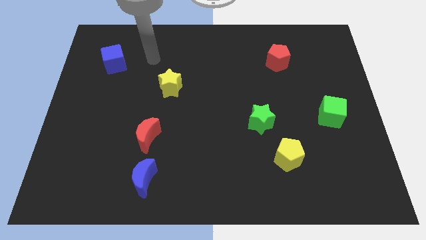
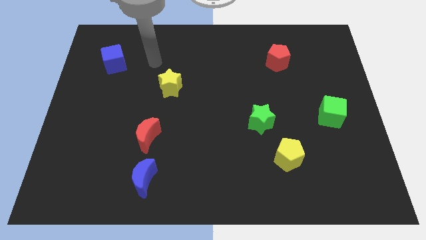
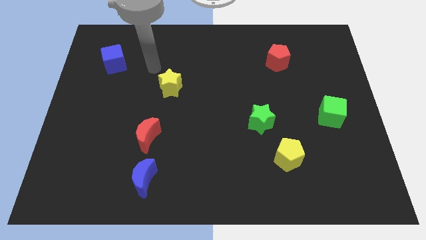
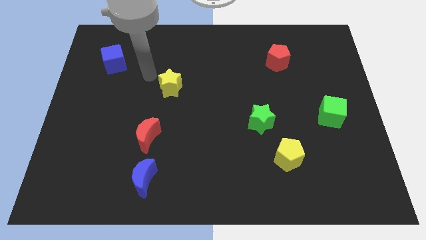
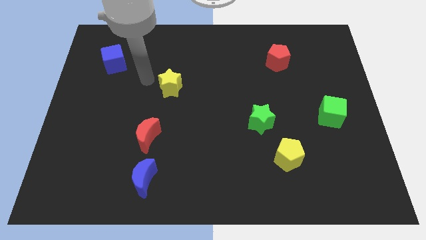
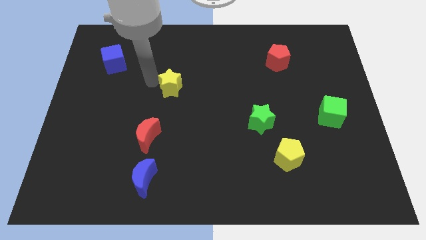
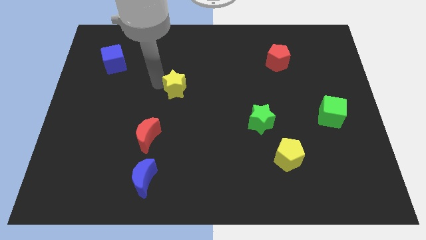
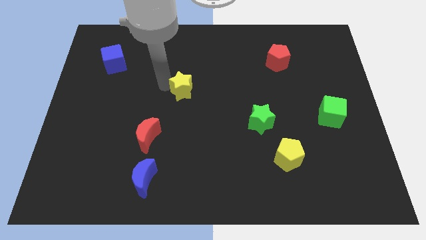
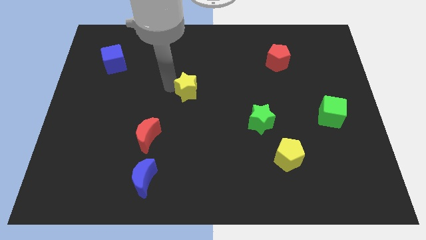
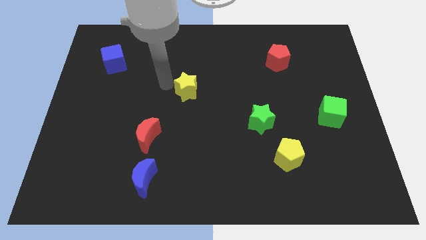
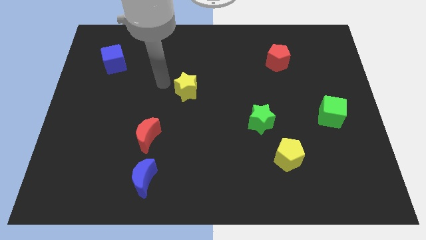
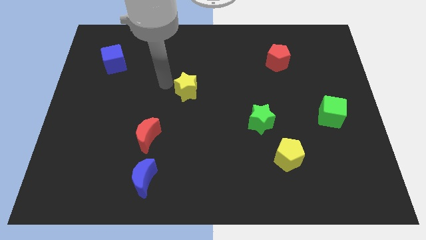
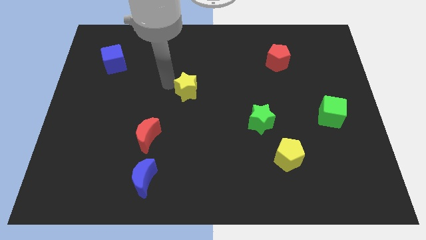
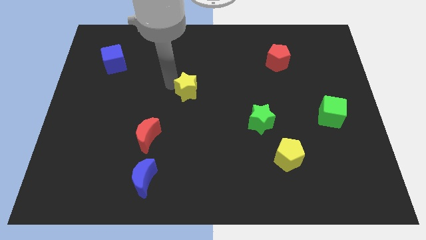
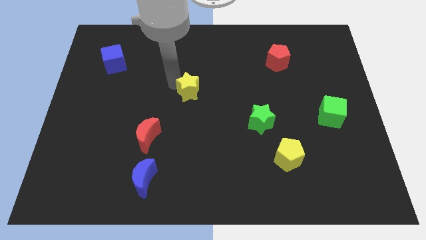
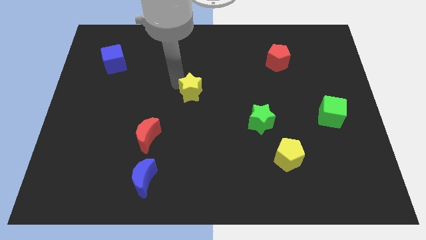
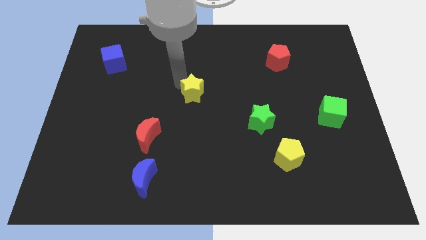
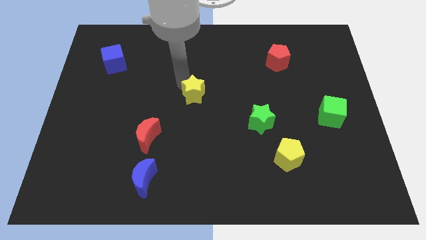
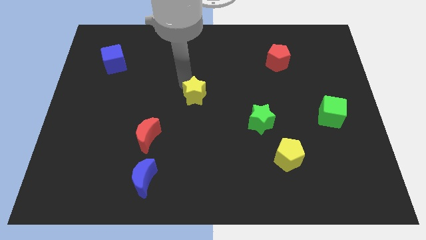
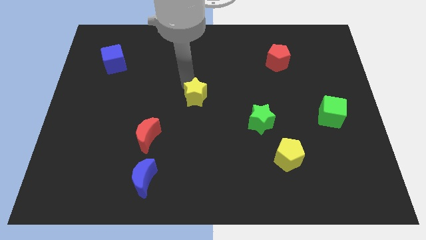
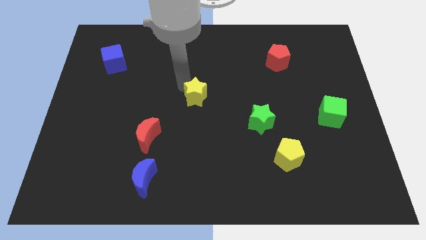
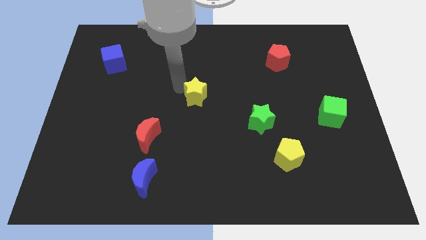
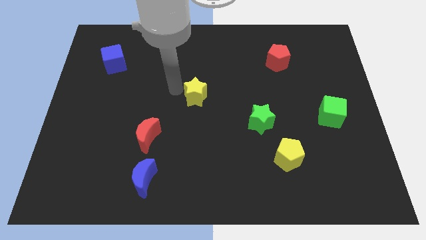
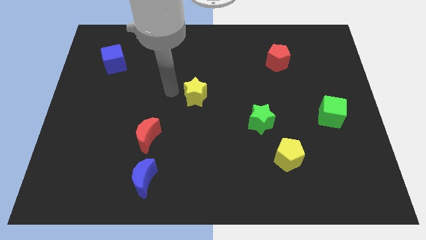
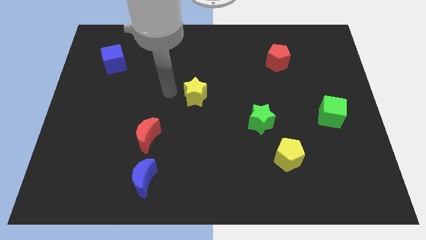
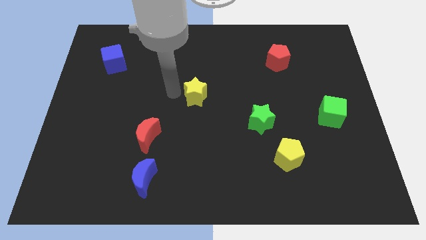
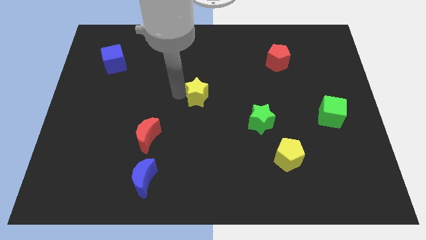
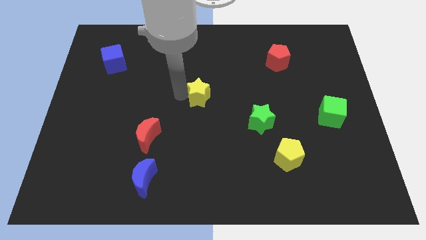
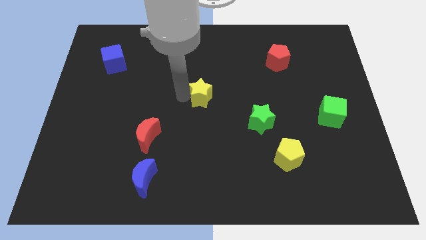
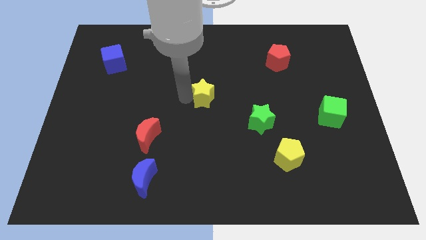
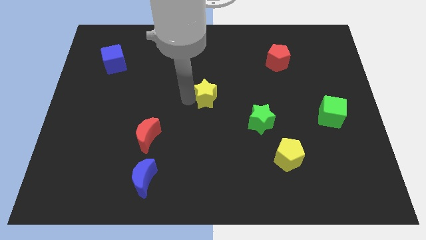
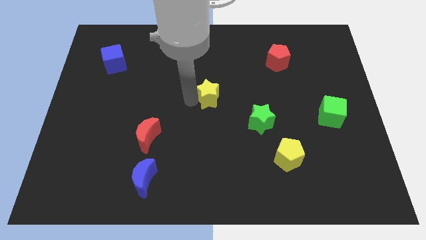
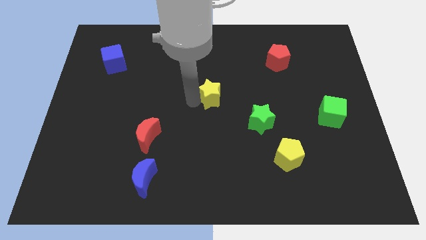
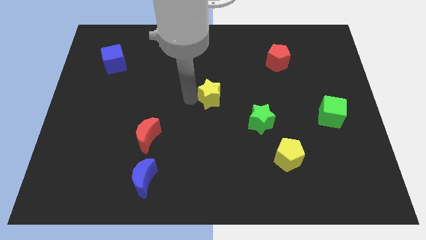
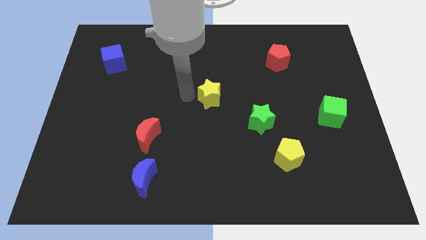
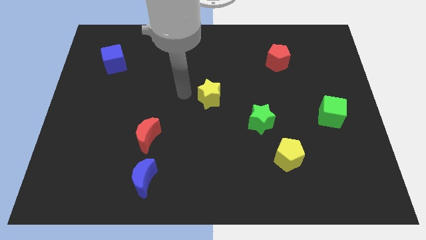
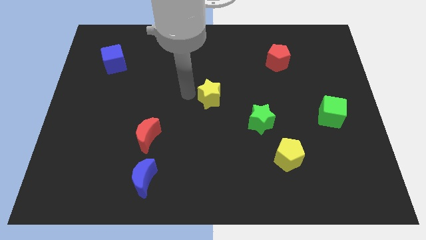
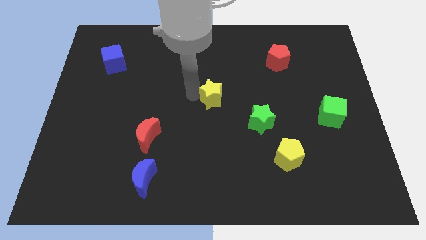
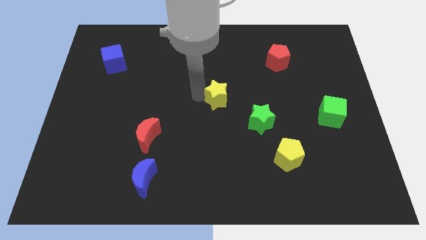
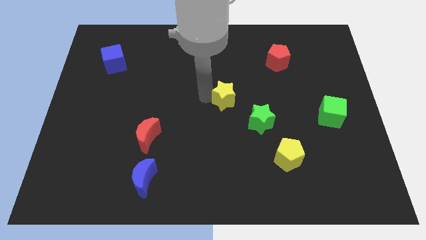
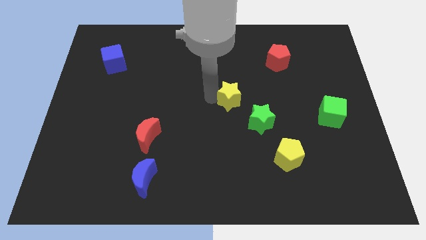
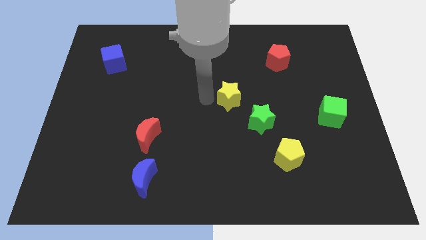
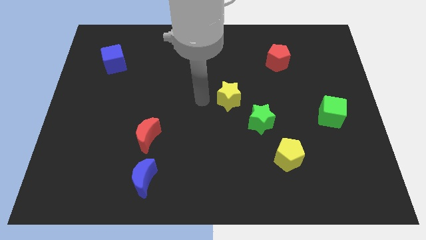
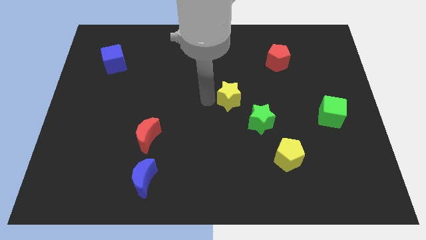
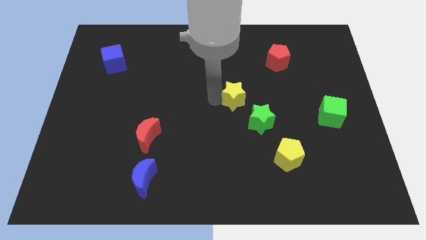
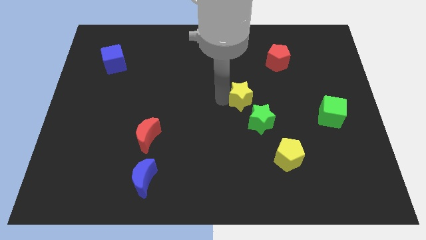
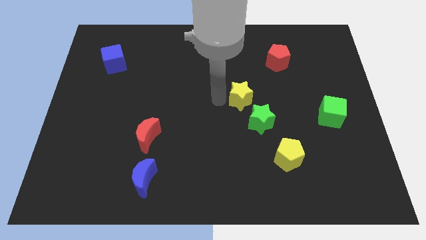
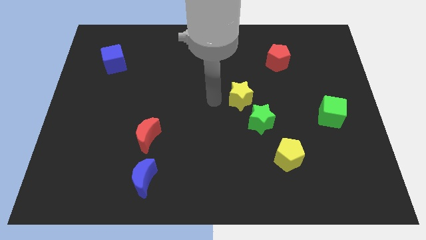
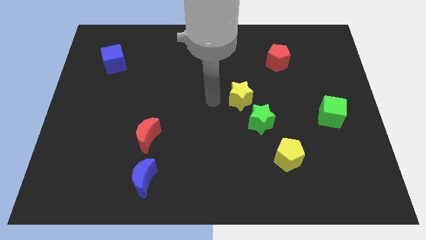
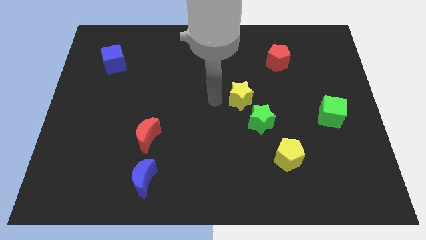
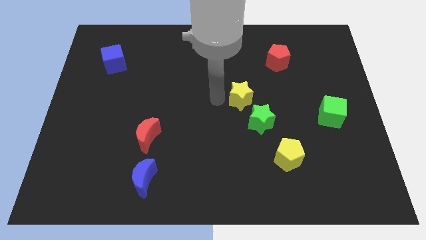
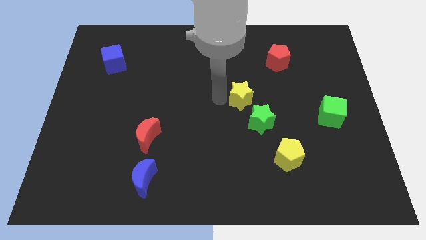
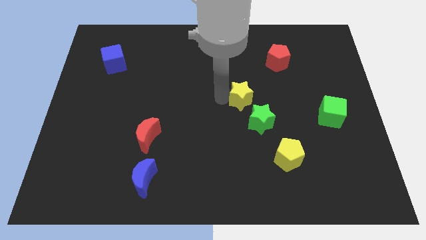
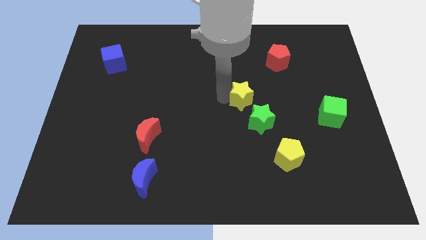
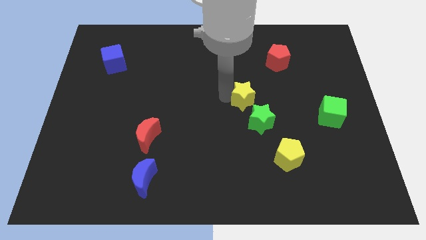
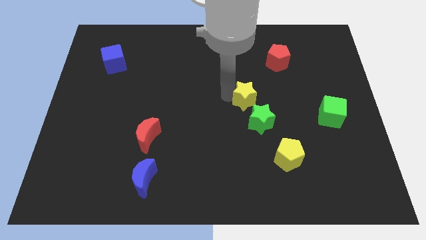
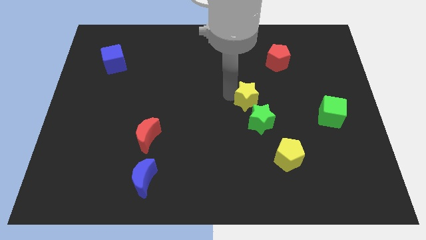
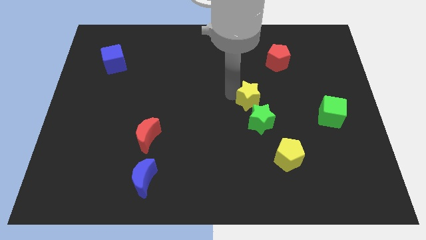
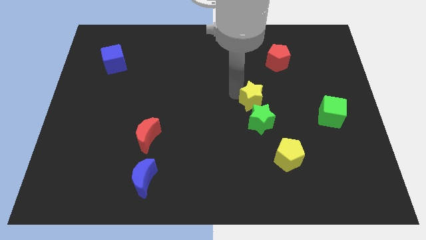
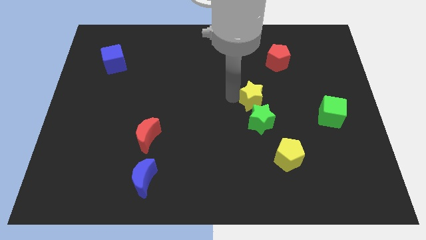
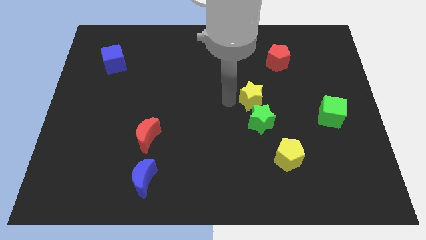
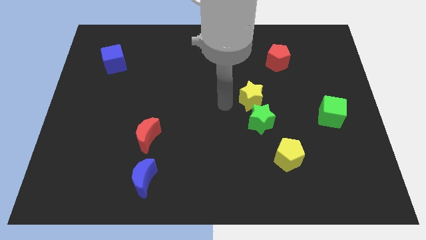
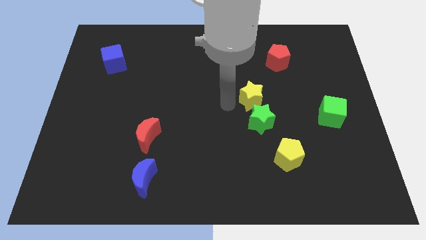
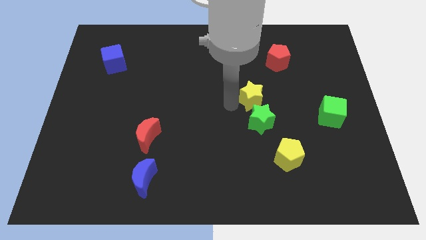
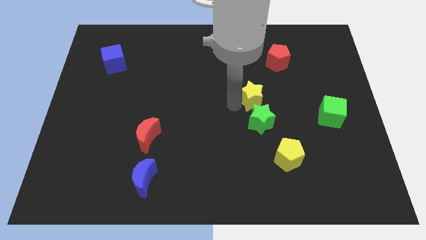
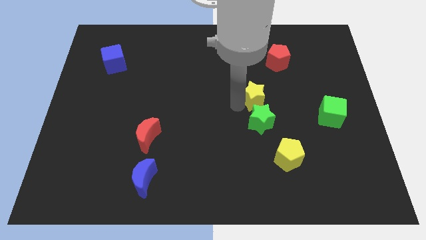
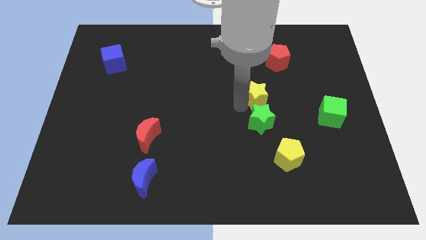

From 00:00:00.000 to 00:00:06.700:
move the yellow star to the right

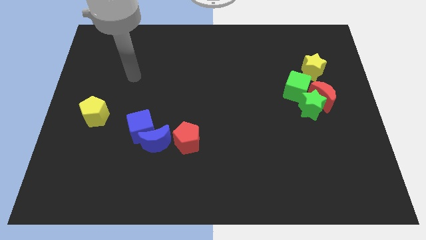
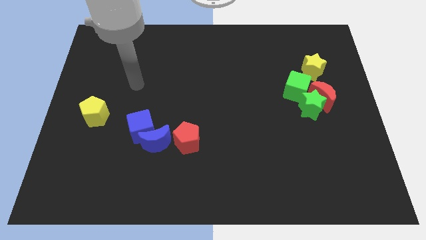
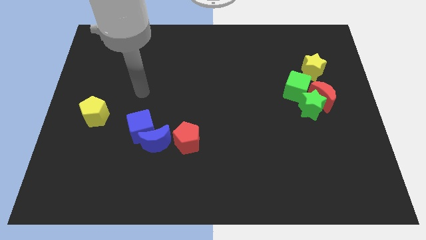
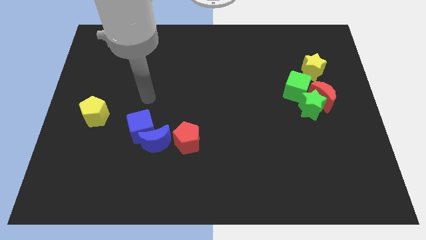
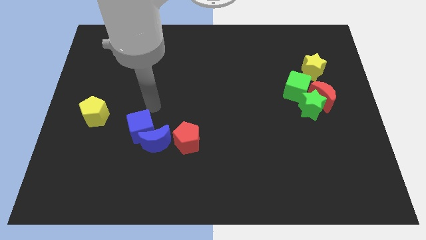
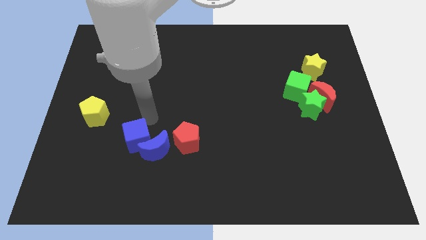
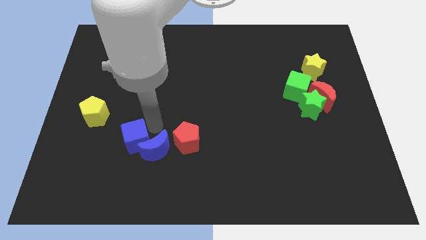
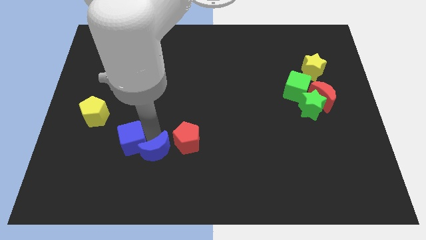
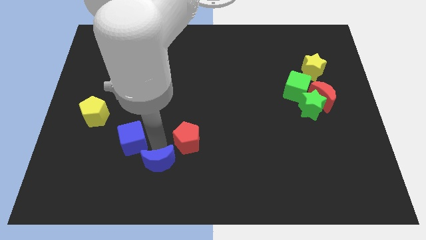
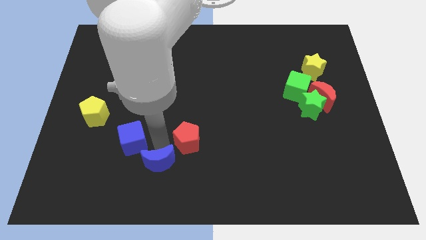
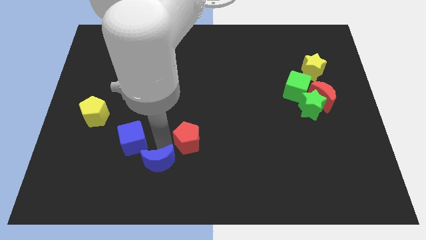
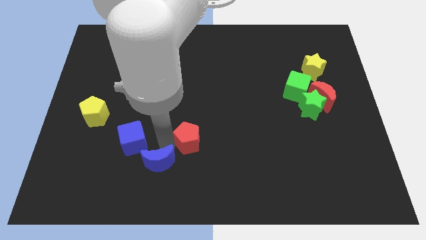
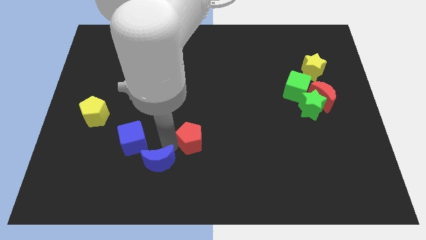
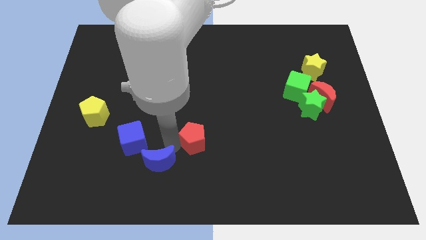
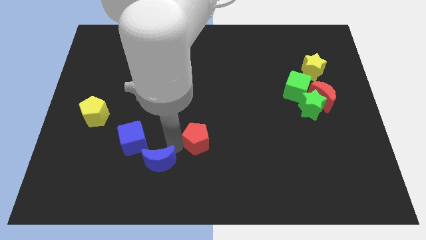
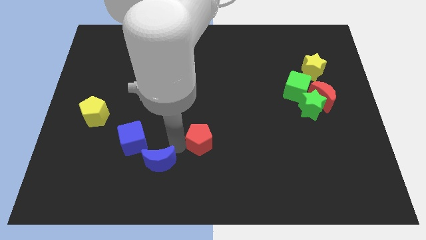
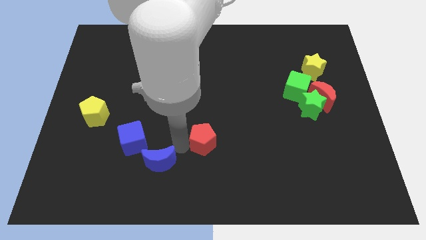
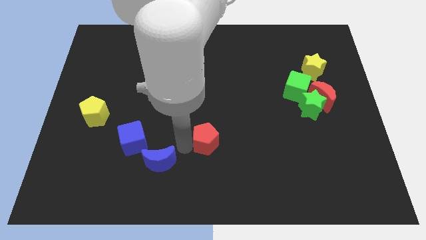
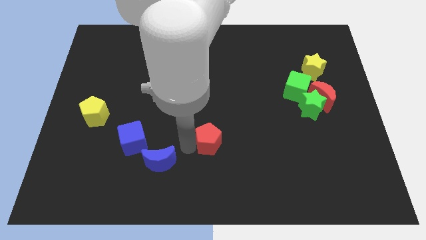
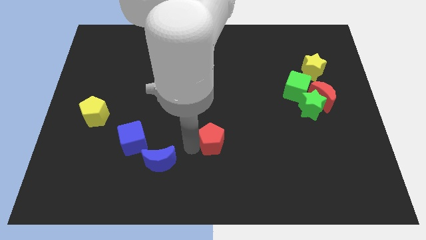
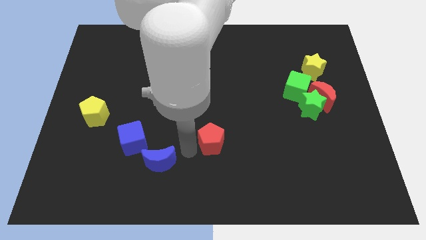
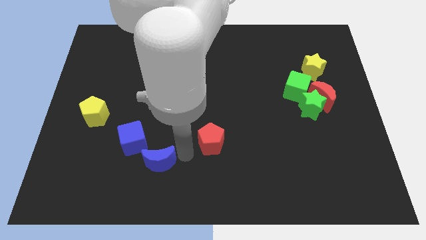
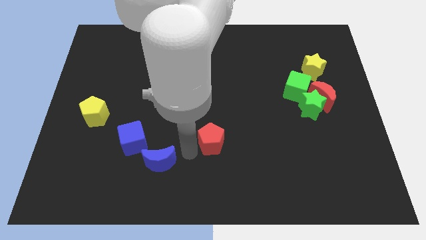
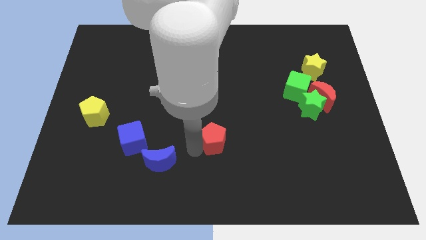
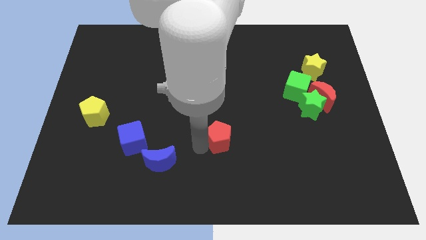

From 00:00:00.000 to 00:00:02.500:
slightly slide the red pentagon right
